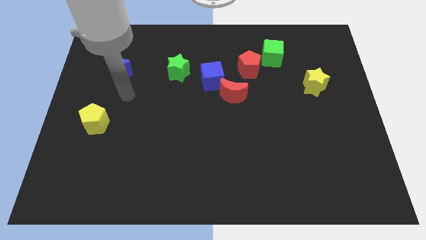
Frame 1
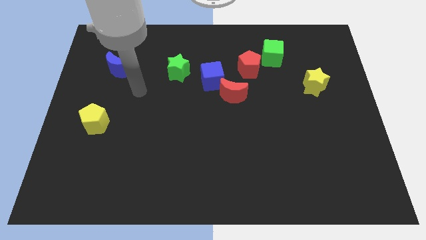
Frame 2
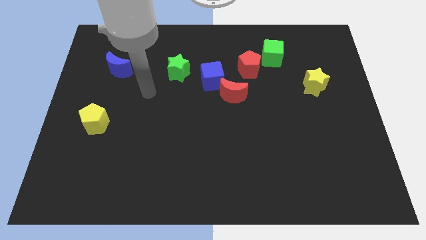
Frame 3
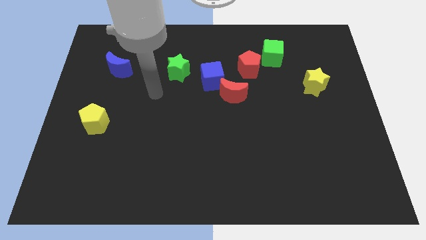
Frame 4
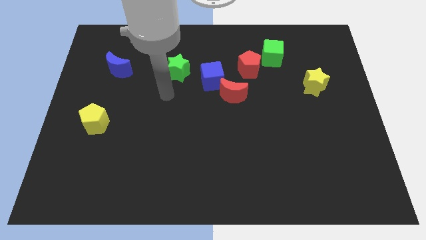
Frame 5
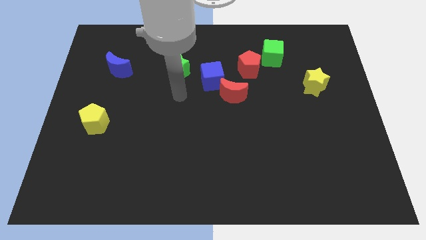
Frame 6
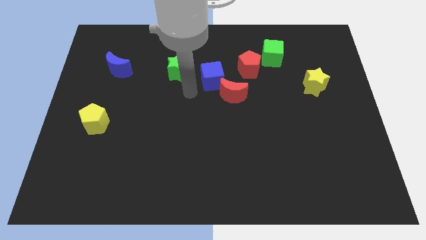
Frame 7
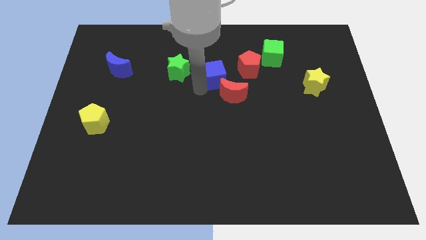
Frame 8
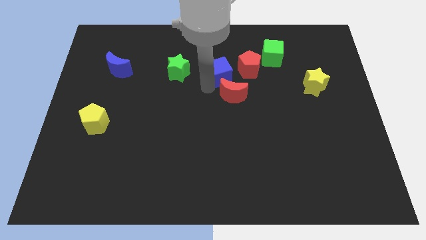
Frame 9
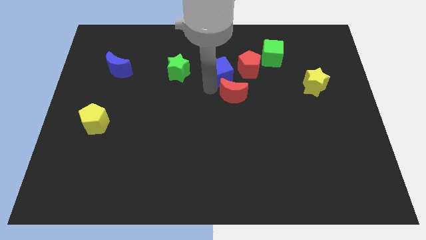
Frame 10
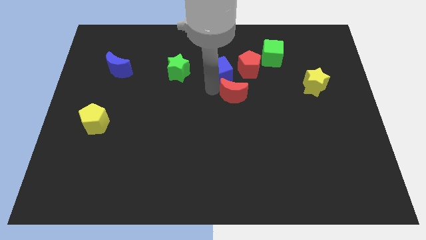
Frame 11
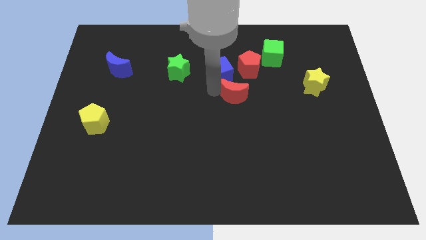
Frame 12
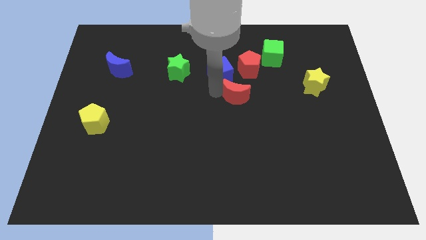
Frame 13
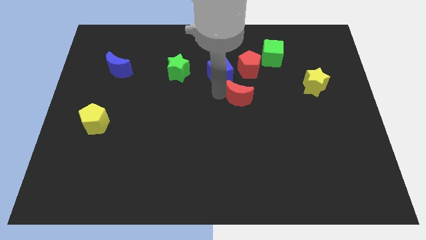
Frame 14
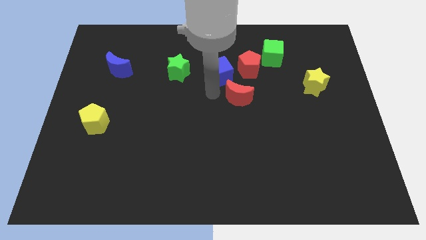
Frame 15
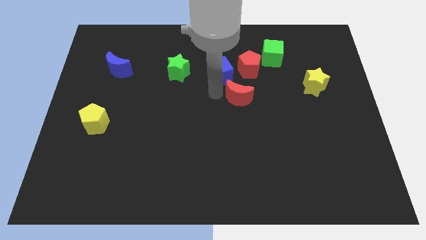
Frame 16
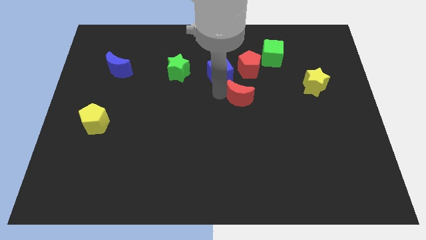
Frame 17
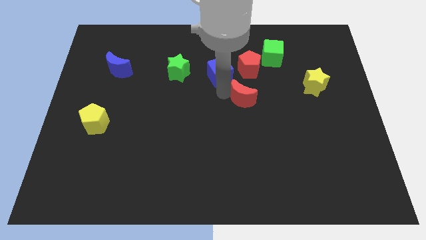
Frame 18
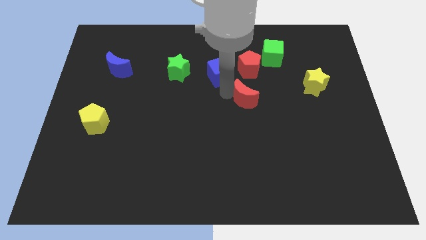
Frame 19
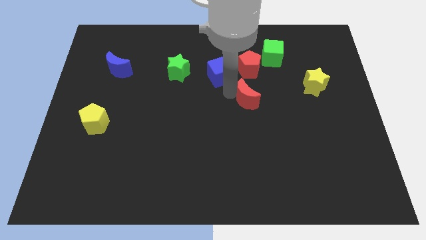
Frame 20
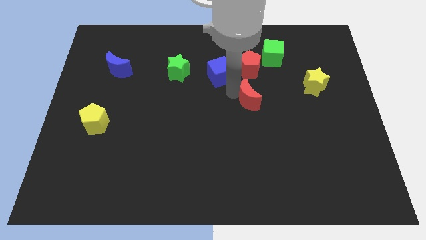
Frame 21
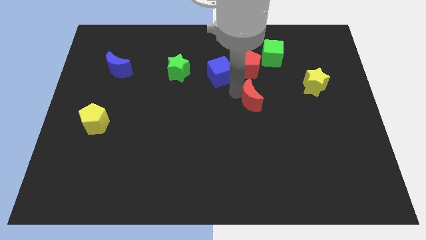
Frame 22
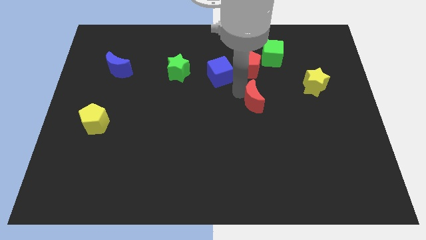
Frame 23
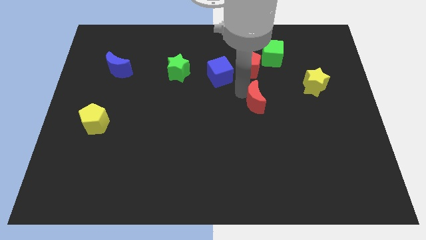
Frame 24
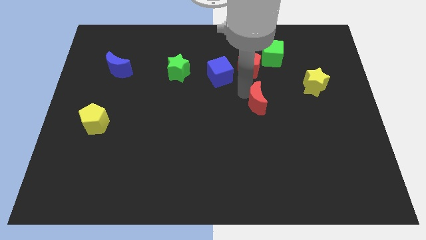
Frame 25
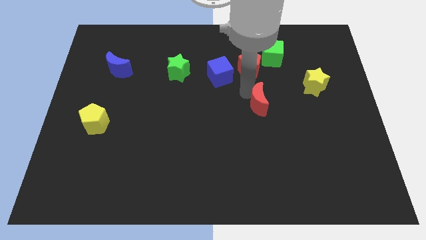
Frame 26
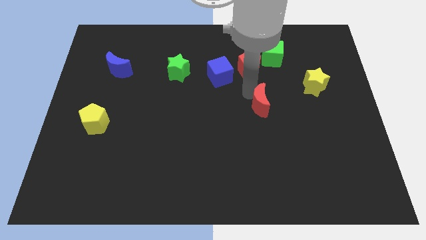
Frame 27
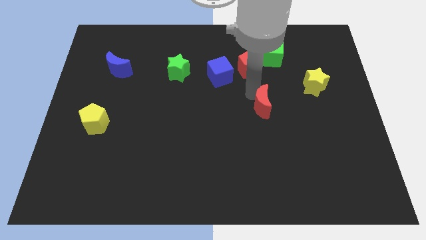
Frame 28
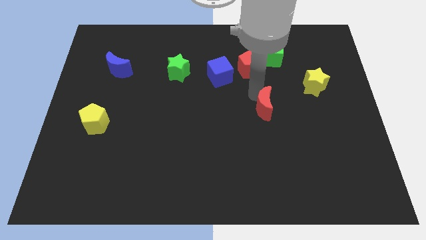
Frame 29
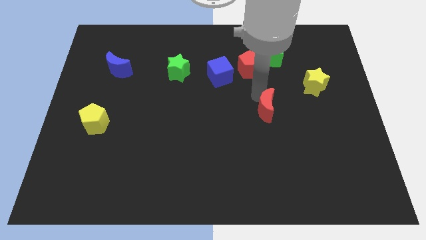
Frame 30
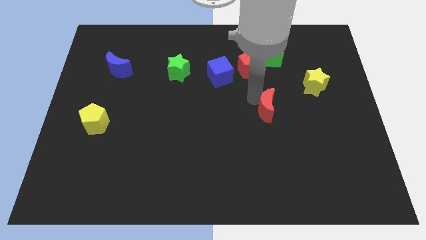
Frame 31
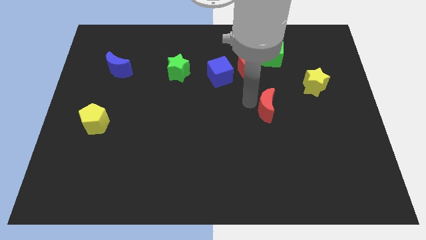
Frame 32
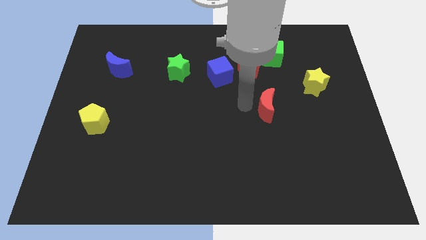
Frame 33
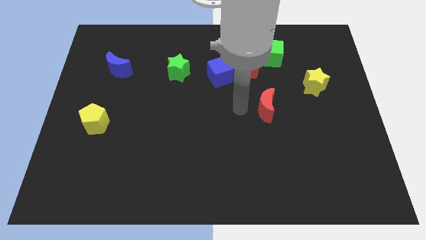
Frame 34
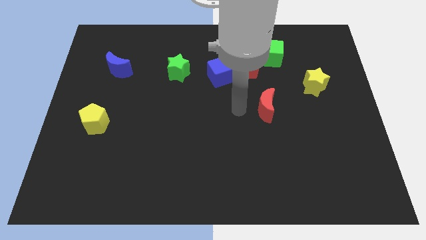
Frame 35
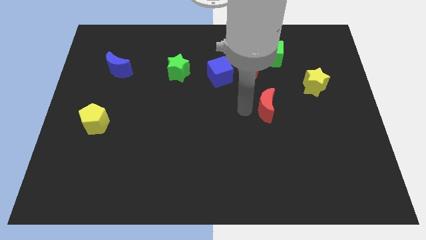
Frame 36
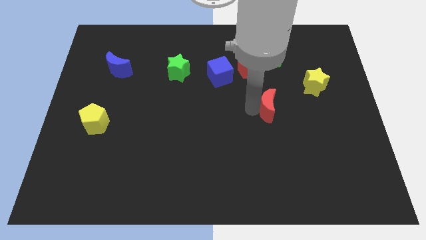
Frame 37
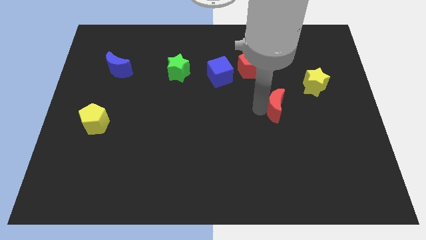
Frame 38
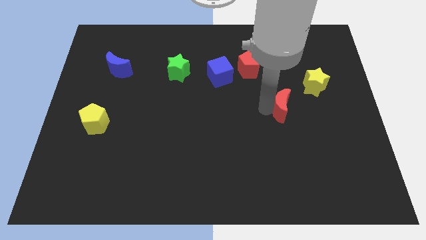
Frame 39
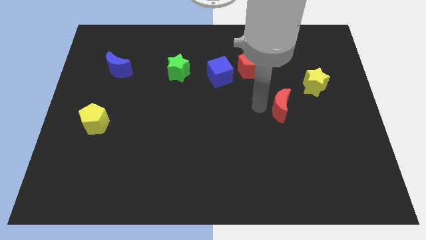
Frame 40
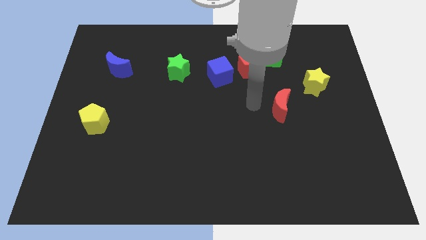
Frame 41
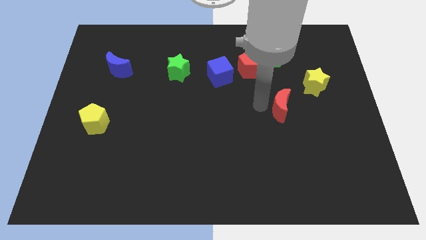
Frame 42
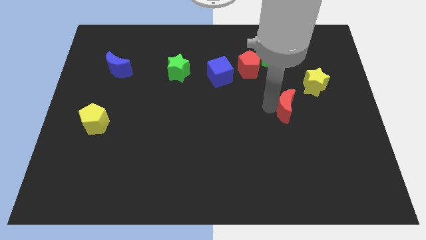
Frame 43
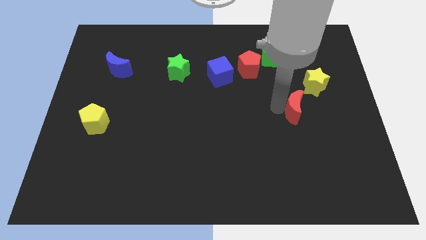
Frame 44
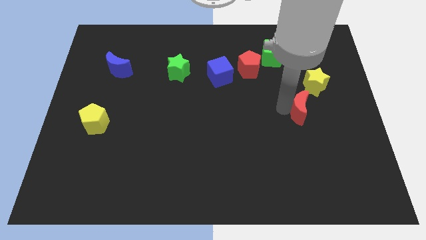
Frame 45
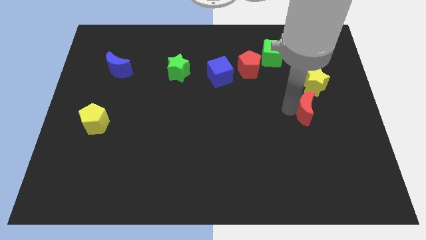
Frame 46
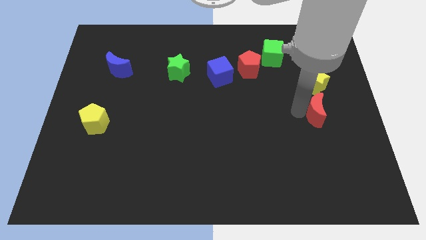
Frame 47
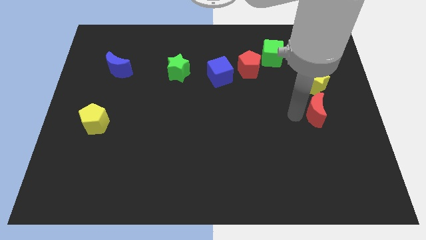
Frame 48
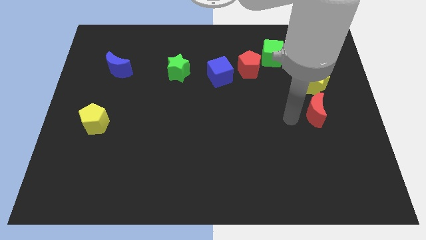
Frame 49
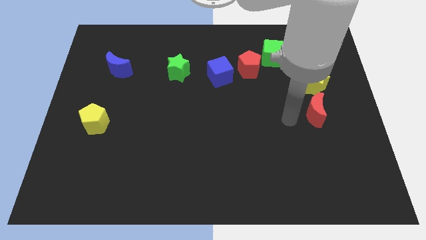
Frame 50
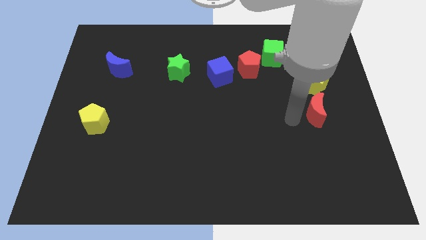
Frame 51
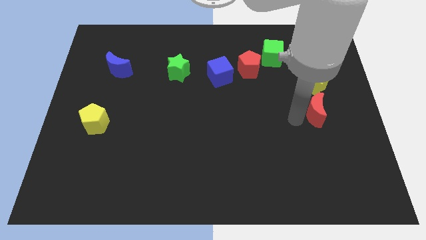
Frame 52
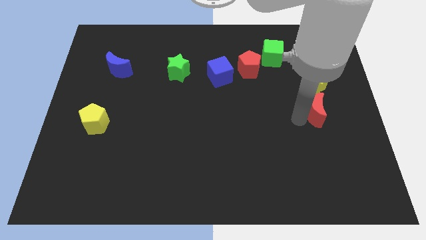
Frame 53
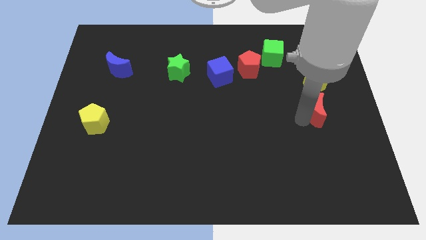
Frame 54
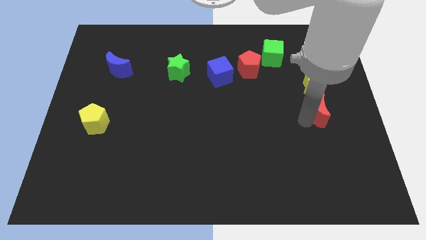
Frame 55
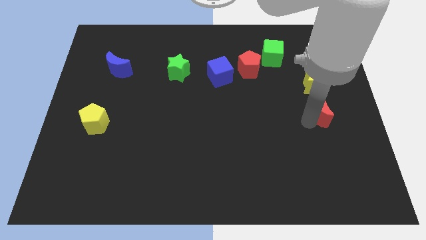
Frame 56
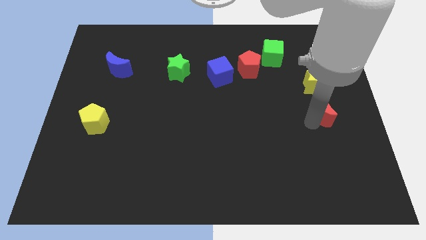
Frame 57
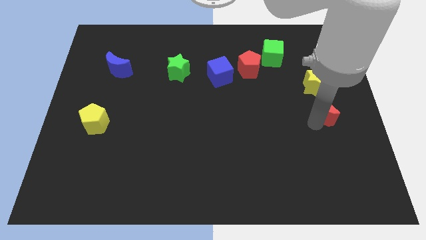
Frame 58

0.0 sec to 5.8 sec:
move the red moon to the right side of the board

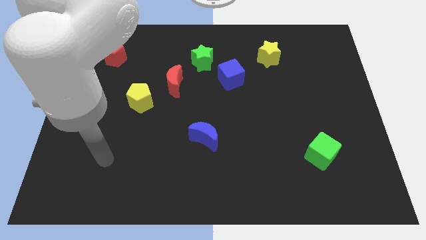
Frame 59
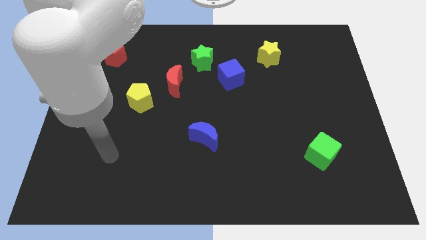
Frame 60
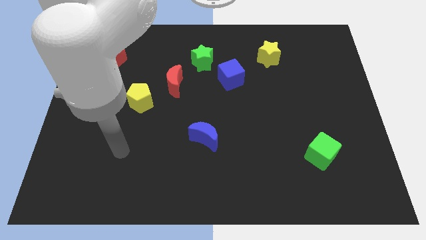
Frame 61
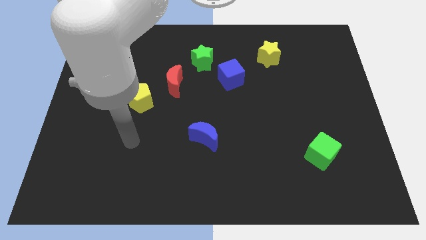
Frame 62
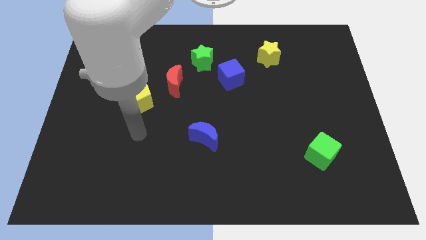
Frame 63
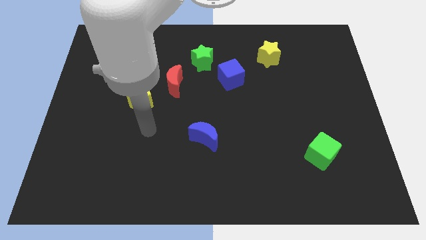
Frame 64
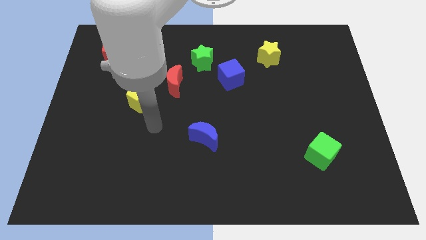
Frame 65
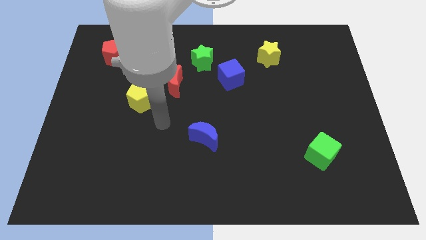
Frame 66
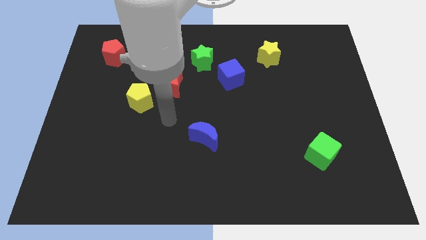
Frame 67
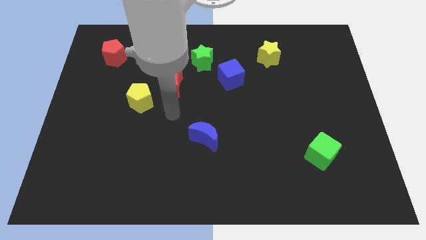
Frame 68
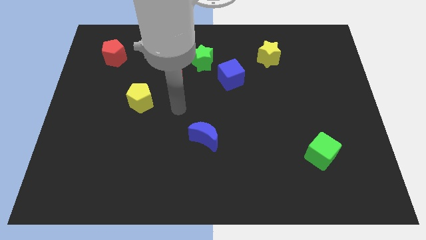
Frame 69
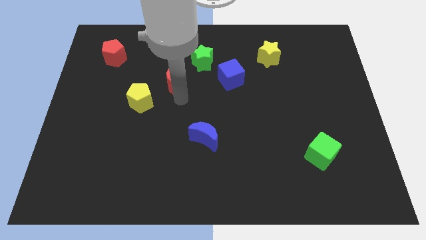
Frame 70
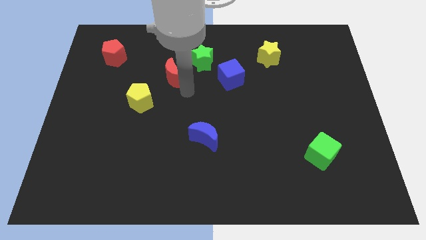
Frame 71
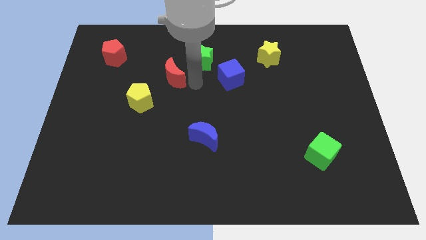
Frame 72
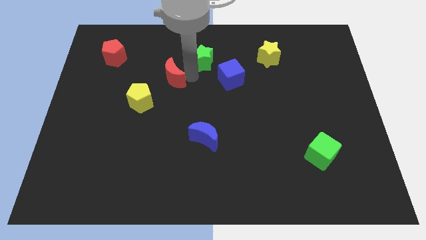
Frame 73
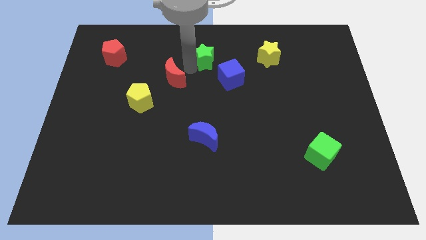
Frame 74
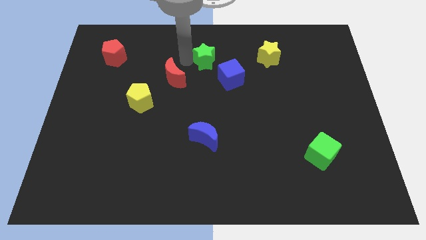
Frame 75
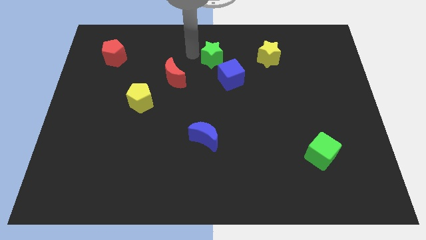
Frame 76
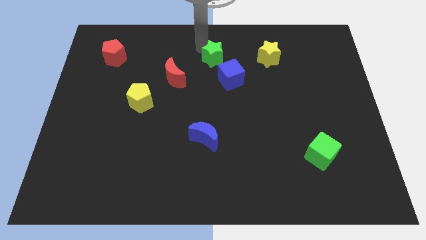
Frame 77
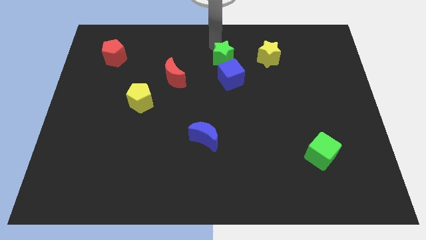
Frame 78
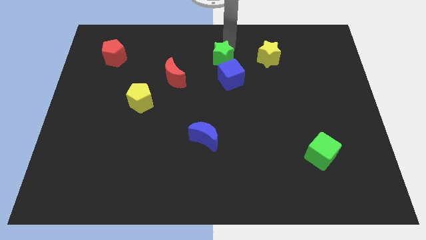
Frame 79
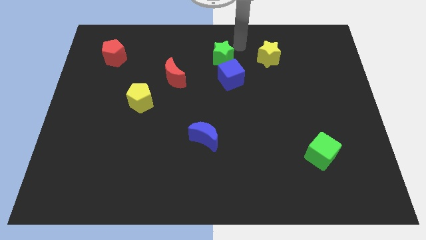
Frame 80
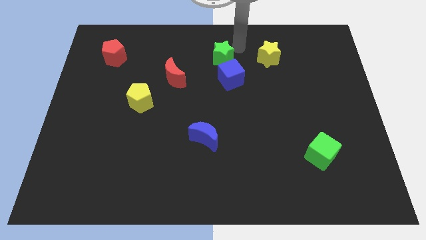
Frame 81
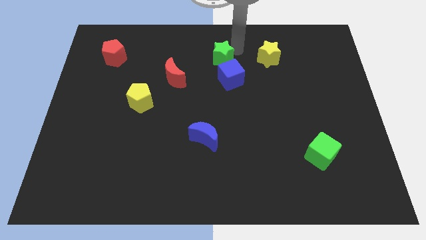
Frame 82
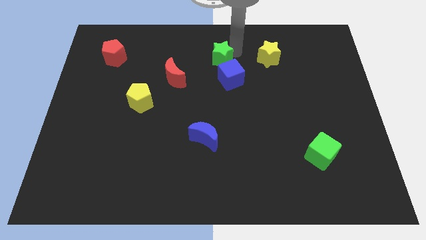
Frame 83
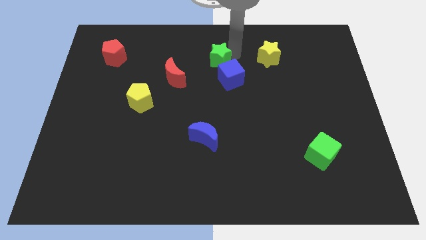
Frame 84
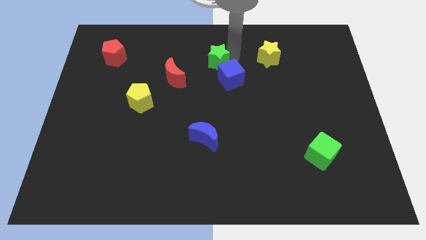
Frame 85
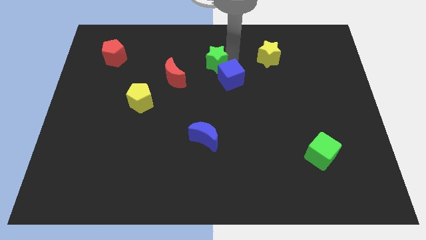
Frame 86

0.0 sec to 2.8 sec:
push the green star to the middle of the board
